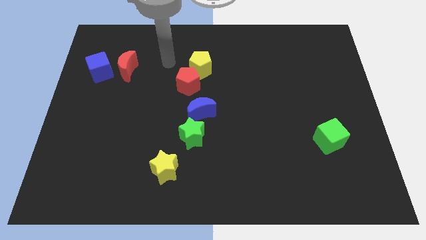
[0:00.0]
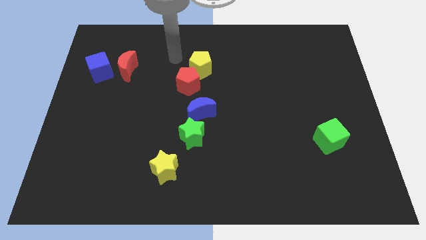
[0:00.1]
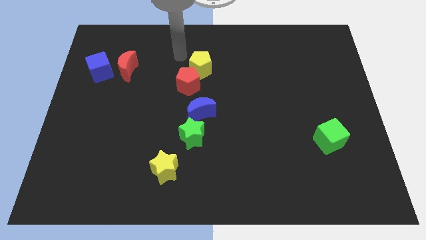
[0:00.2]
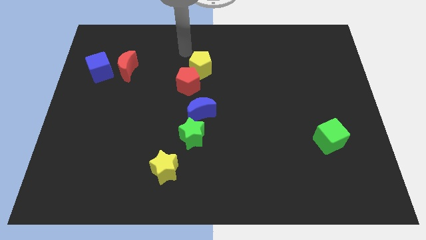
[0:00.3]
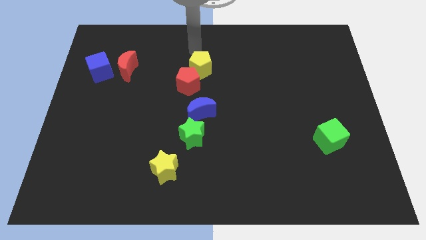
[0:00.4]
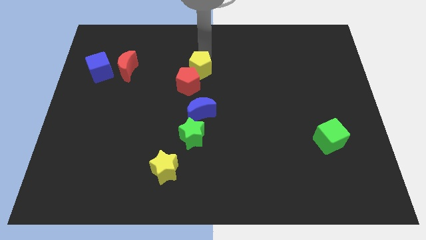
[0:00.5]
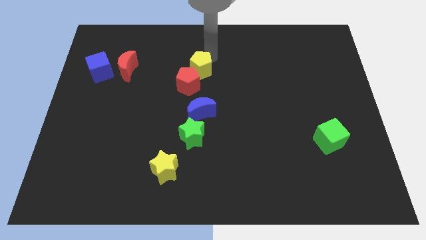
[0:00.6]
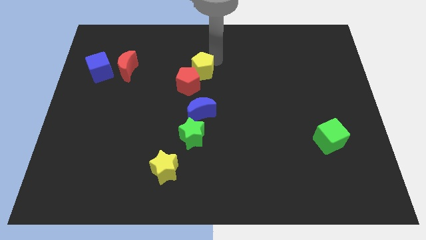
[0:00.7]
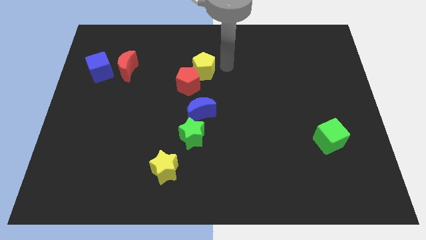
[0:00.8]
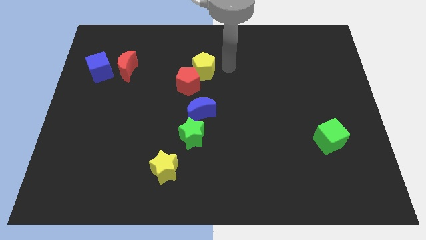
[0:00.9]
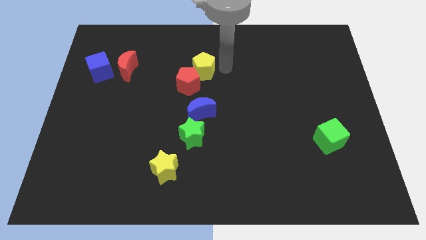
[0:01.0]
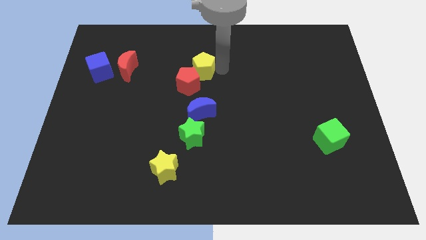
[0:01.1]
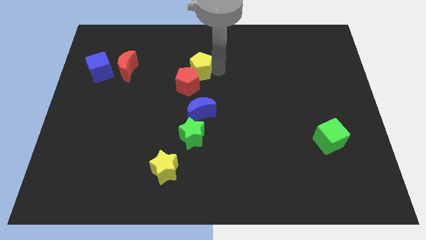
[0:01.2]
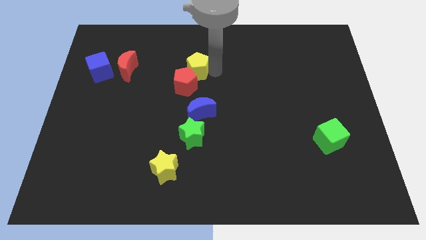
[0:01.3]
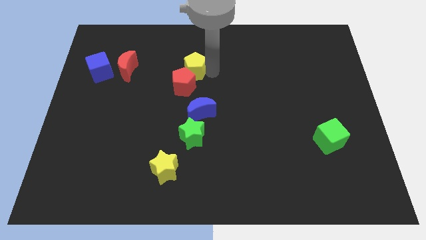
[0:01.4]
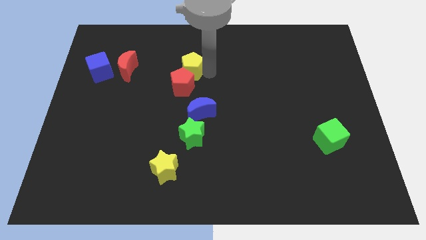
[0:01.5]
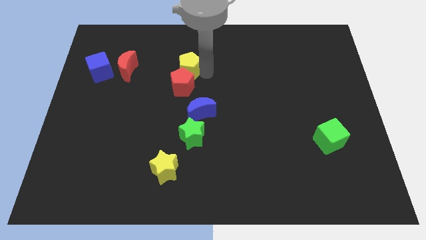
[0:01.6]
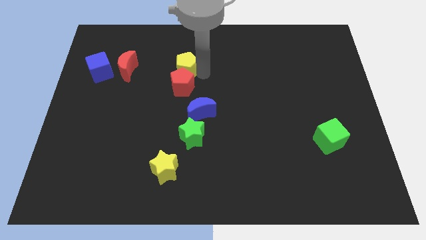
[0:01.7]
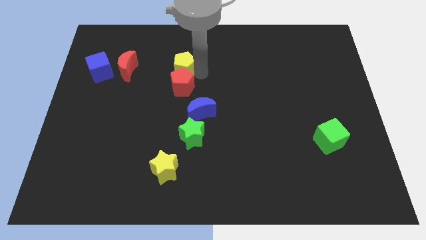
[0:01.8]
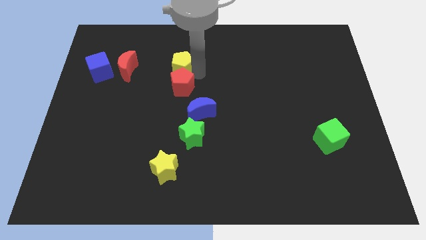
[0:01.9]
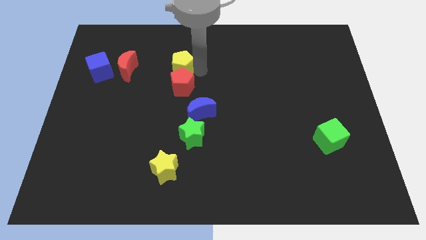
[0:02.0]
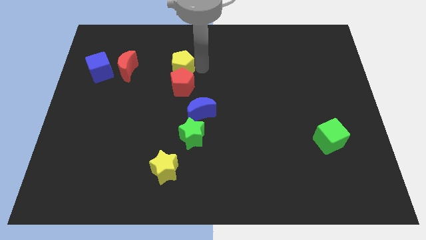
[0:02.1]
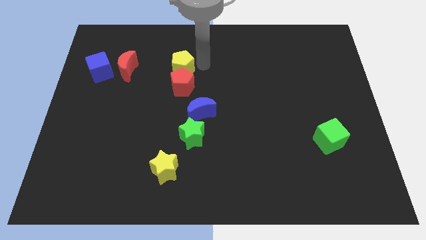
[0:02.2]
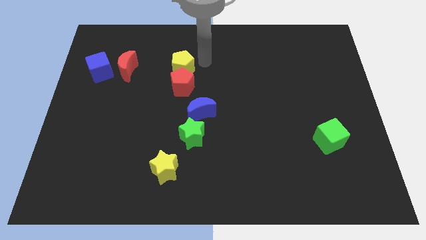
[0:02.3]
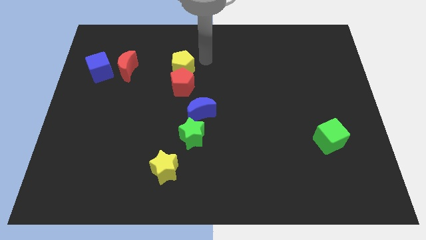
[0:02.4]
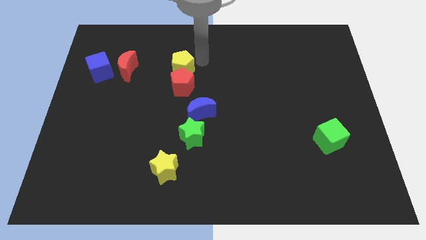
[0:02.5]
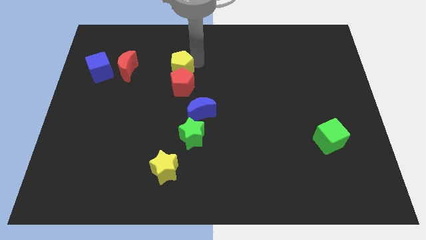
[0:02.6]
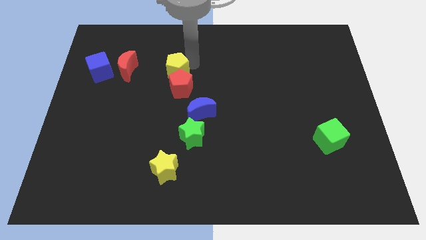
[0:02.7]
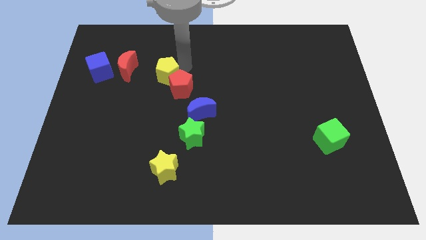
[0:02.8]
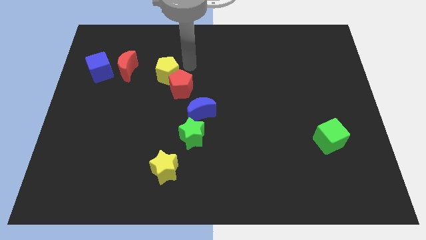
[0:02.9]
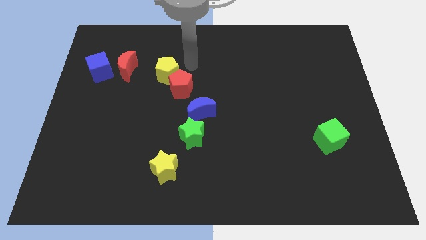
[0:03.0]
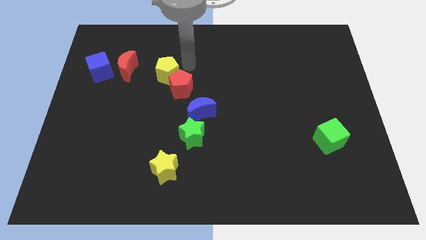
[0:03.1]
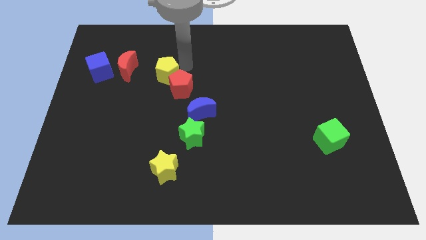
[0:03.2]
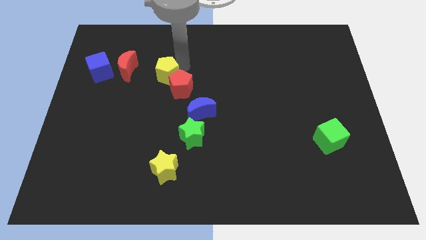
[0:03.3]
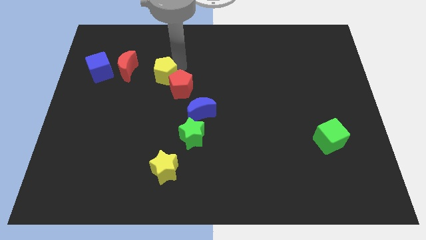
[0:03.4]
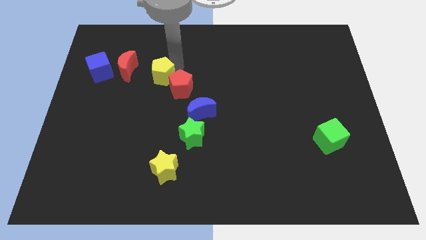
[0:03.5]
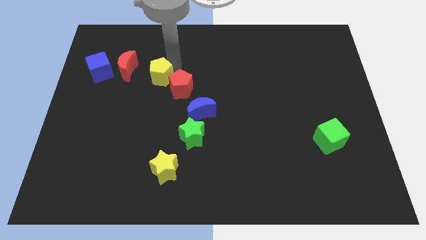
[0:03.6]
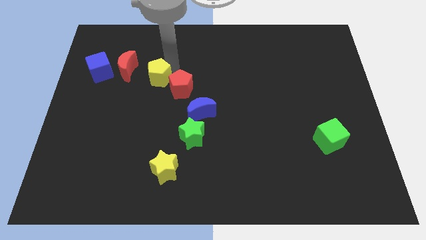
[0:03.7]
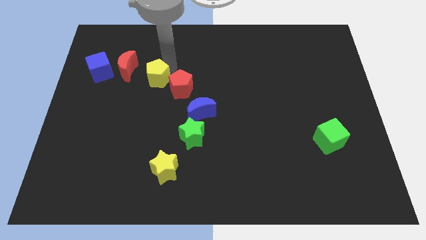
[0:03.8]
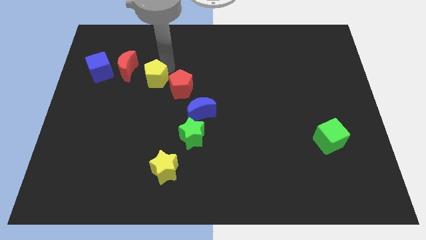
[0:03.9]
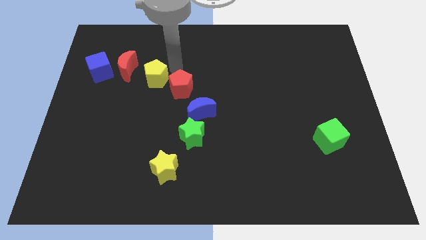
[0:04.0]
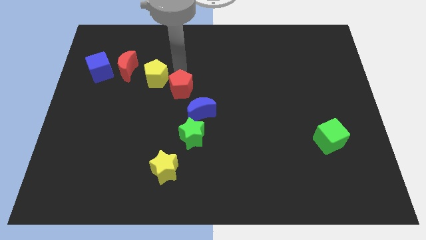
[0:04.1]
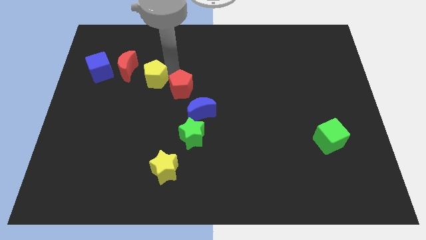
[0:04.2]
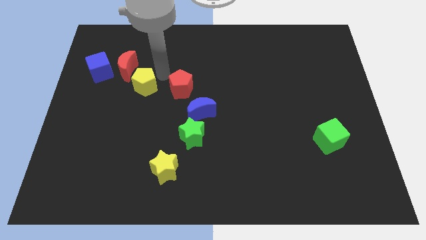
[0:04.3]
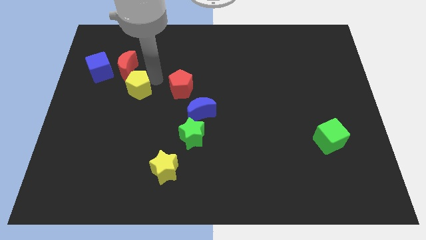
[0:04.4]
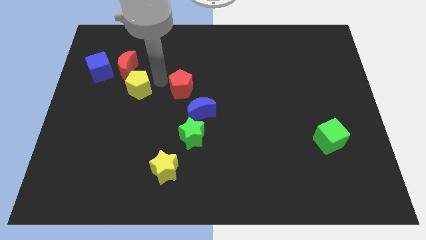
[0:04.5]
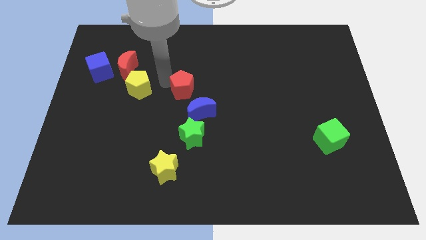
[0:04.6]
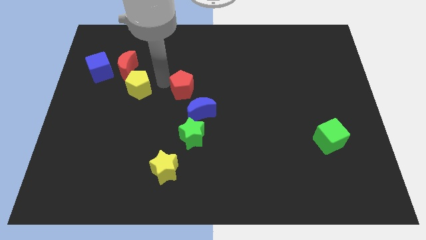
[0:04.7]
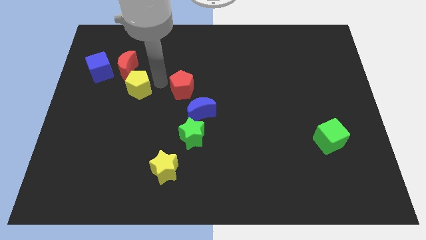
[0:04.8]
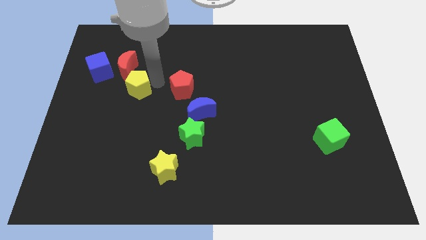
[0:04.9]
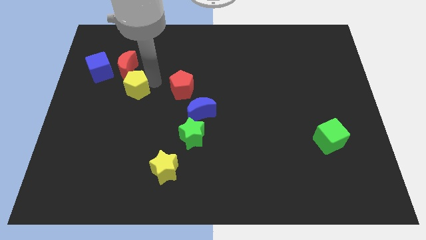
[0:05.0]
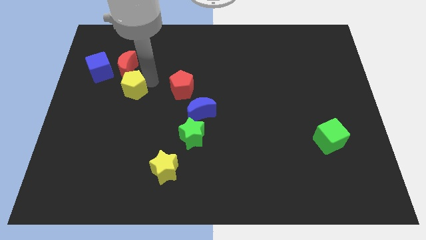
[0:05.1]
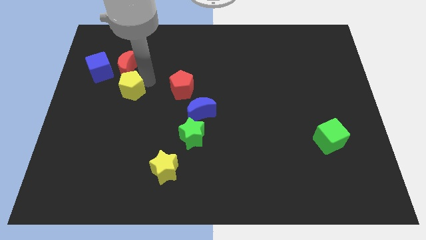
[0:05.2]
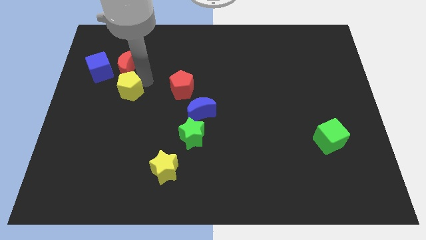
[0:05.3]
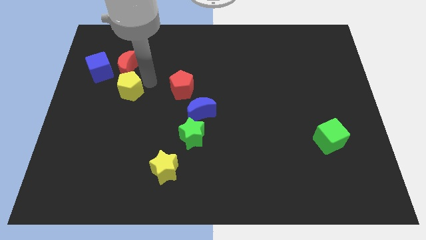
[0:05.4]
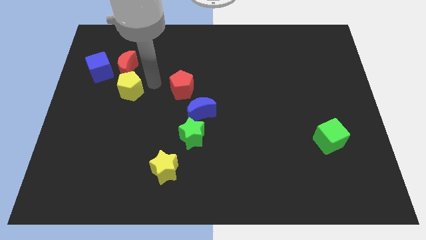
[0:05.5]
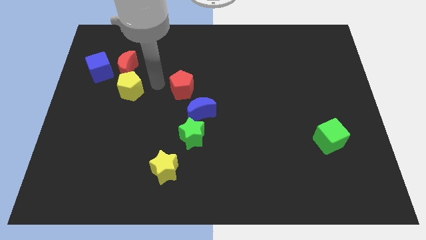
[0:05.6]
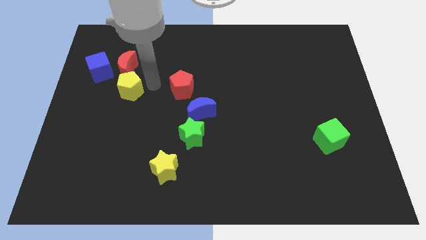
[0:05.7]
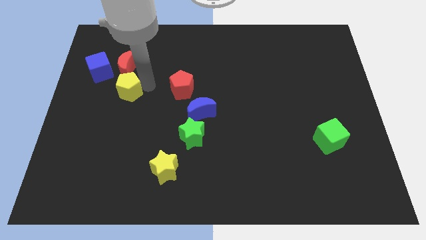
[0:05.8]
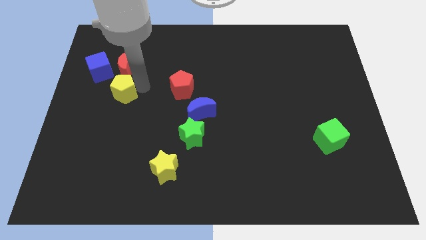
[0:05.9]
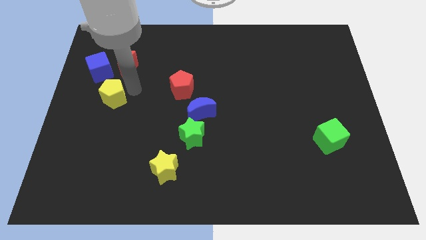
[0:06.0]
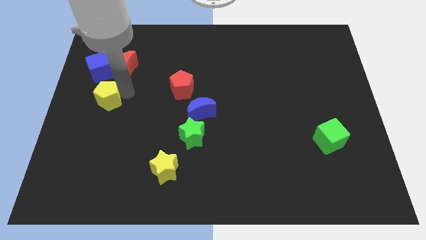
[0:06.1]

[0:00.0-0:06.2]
put the yellow pentagon to the left side

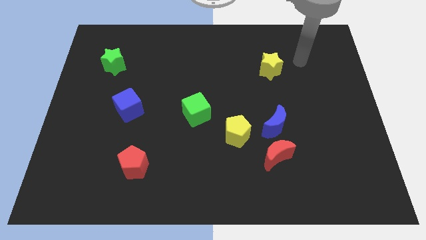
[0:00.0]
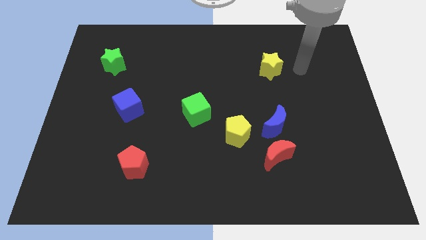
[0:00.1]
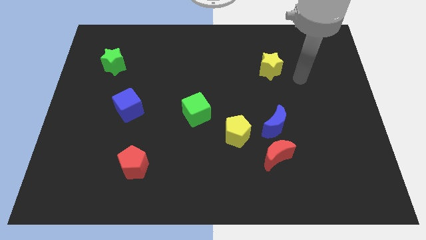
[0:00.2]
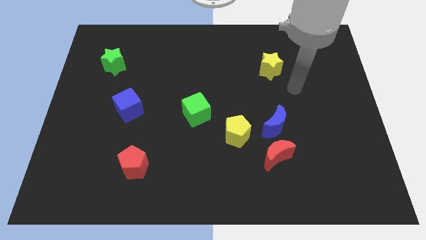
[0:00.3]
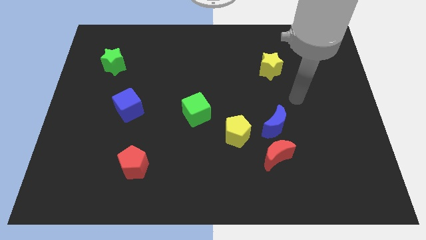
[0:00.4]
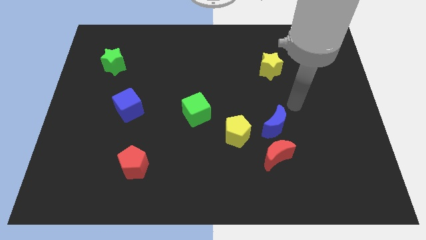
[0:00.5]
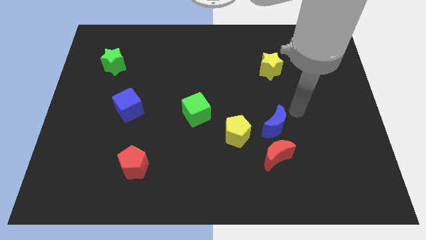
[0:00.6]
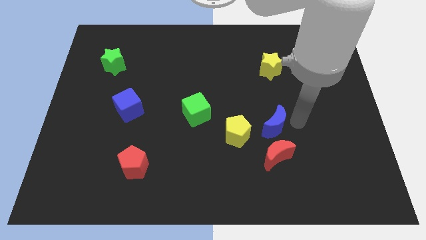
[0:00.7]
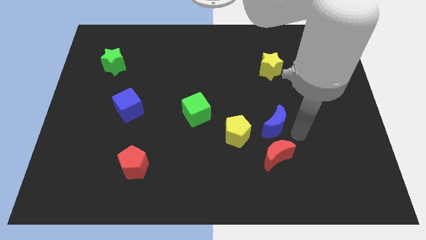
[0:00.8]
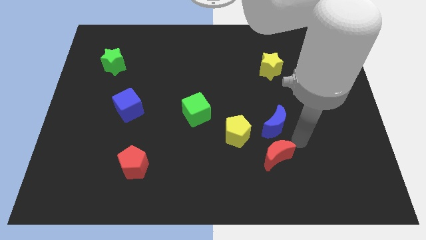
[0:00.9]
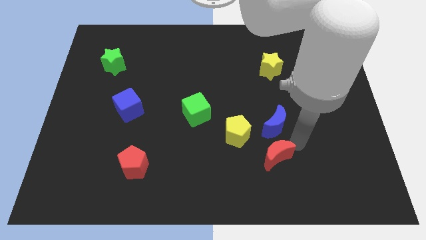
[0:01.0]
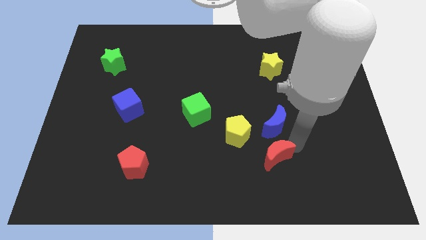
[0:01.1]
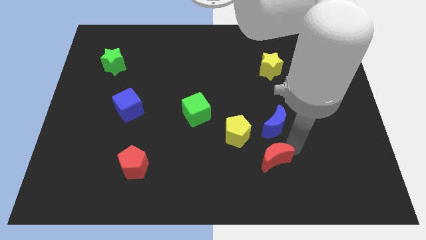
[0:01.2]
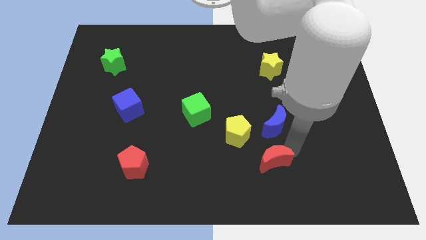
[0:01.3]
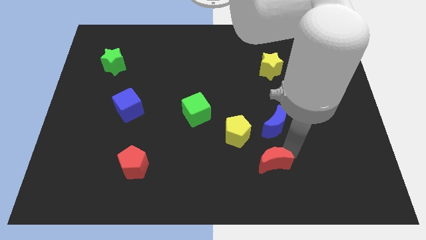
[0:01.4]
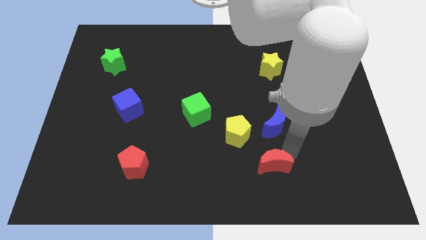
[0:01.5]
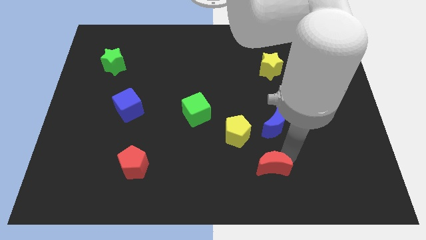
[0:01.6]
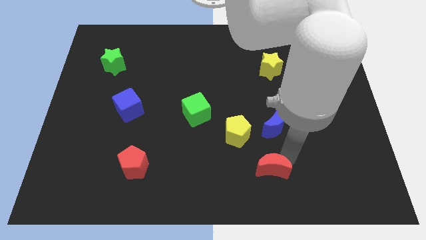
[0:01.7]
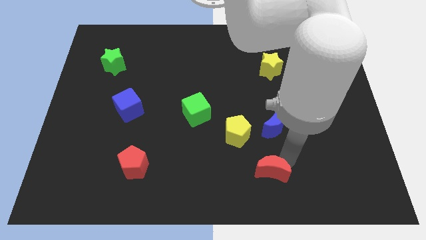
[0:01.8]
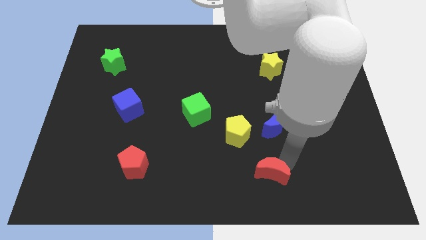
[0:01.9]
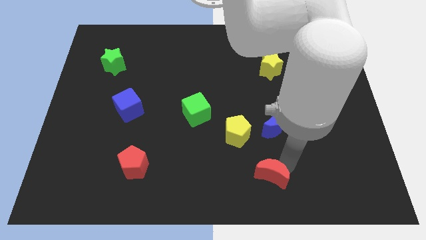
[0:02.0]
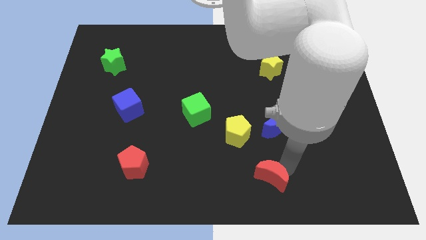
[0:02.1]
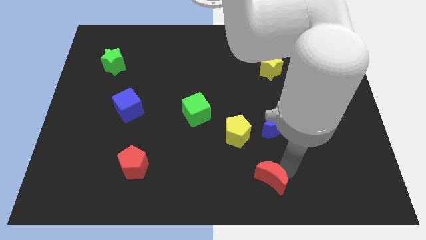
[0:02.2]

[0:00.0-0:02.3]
slide the red moon to the bottom side
